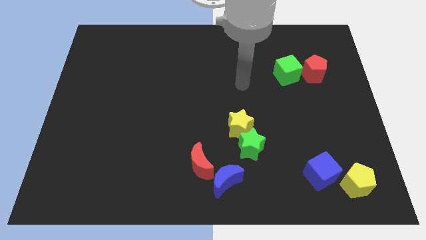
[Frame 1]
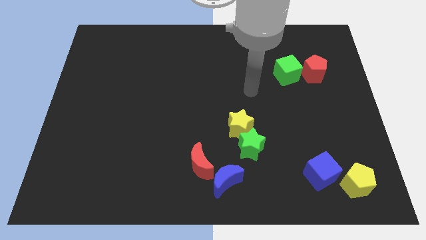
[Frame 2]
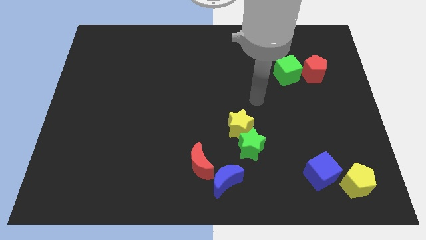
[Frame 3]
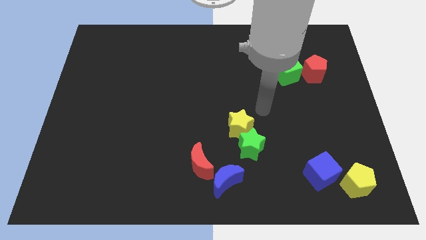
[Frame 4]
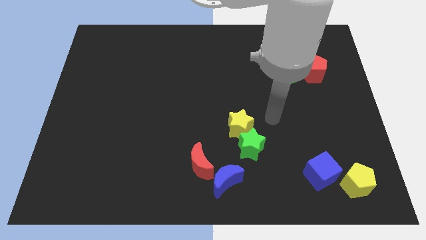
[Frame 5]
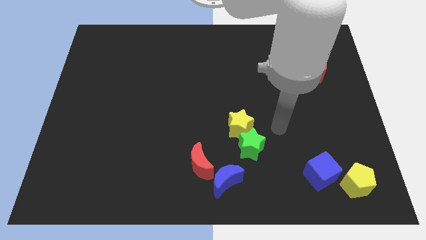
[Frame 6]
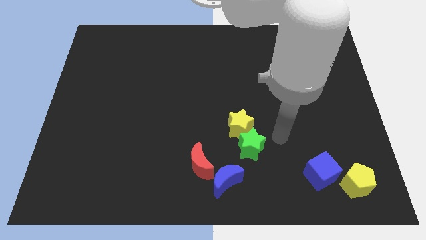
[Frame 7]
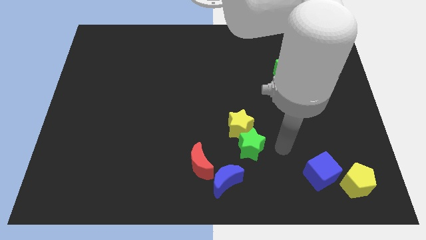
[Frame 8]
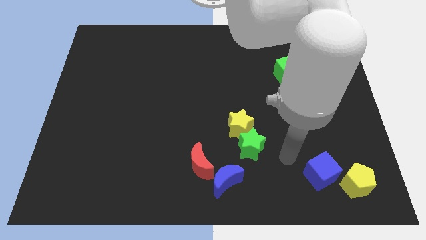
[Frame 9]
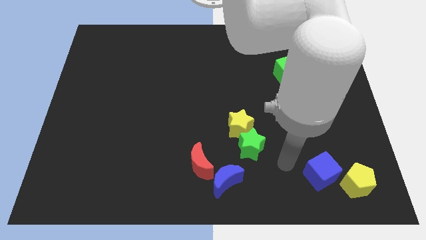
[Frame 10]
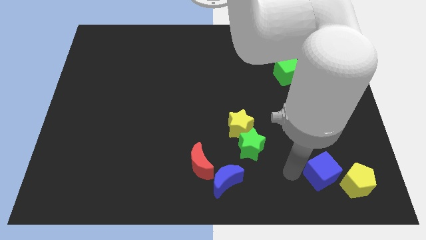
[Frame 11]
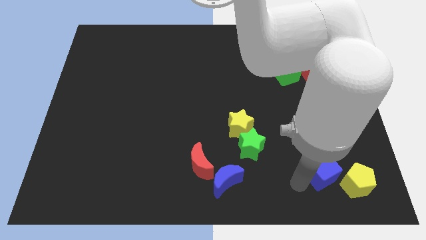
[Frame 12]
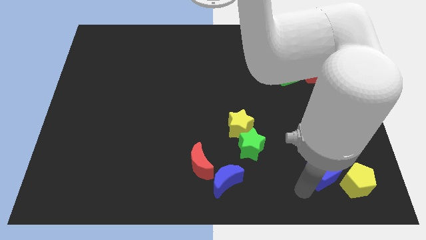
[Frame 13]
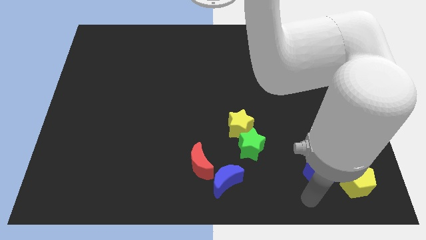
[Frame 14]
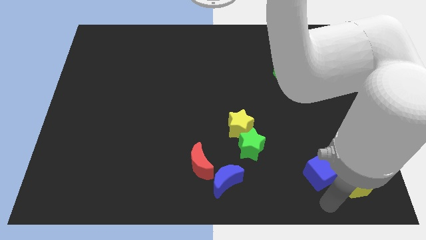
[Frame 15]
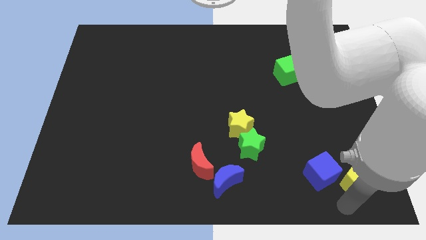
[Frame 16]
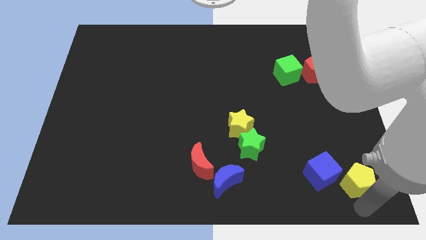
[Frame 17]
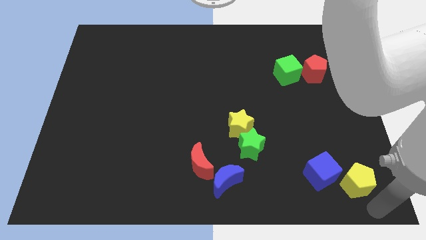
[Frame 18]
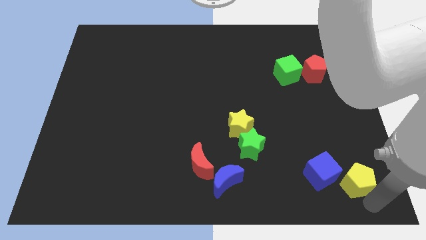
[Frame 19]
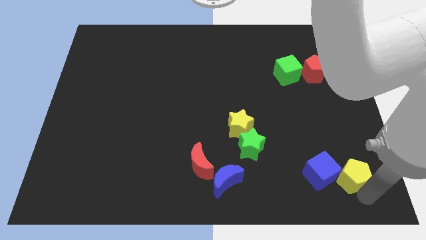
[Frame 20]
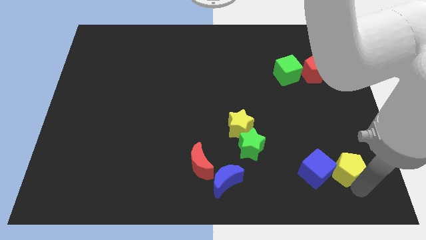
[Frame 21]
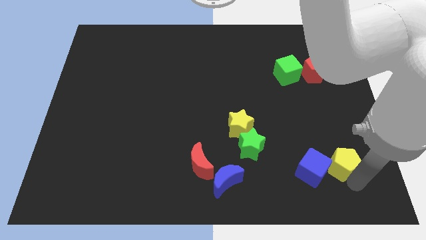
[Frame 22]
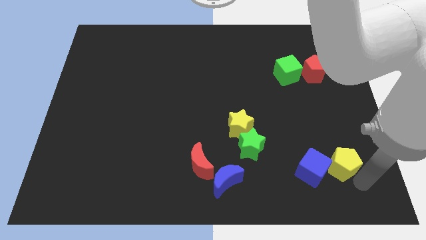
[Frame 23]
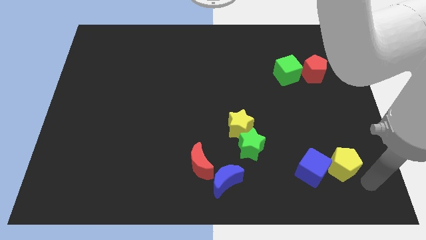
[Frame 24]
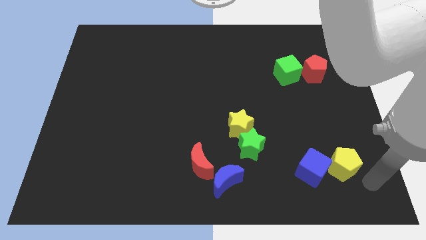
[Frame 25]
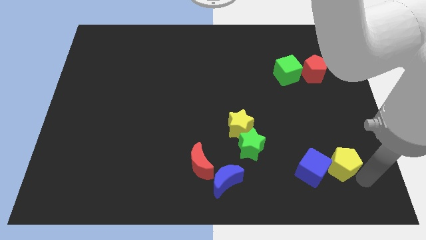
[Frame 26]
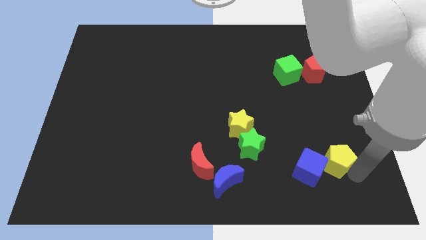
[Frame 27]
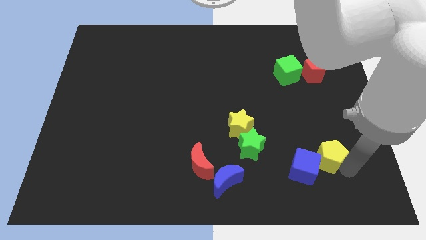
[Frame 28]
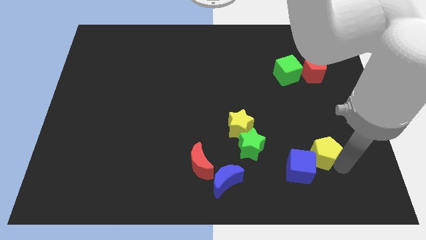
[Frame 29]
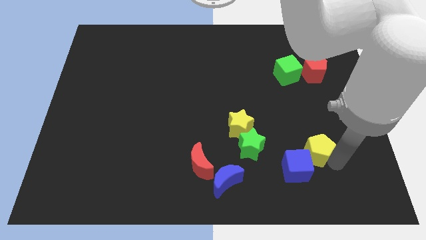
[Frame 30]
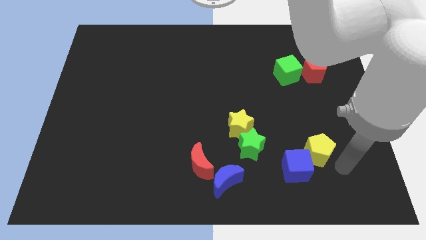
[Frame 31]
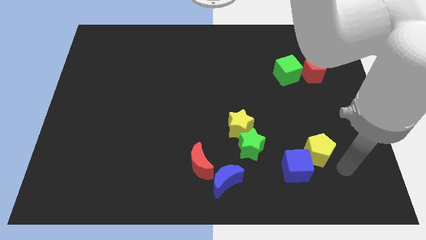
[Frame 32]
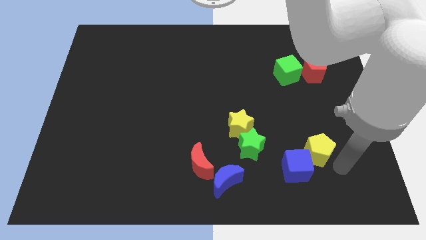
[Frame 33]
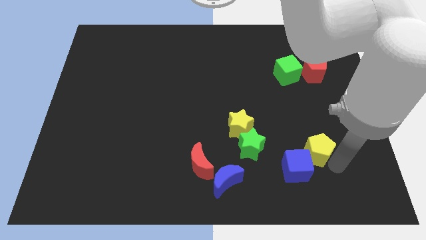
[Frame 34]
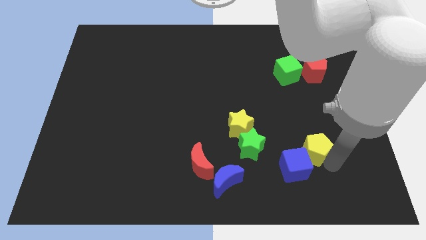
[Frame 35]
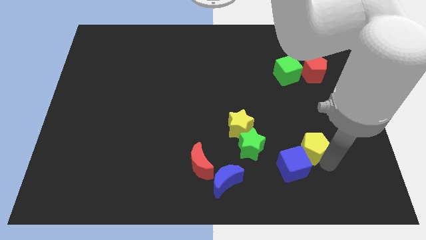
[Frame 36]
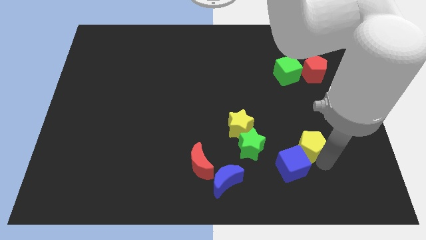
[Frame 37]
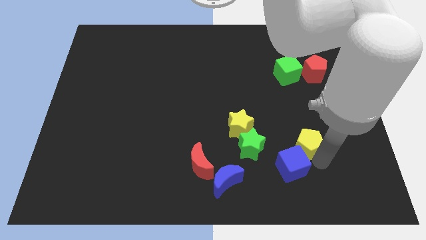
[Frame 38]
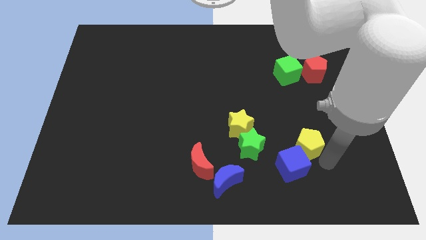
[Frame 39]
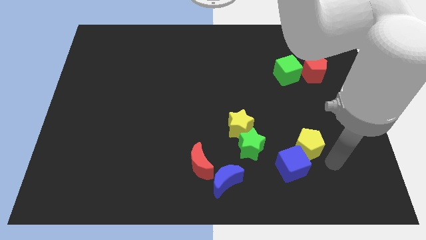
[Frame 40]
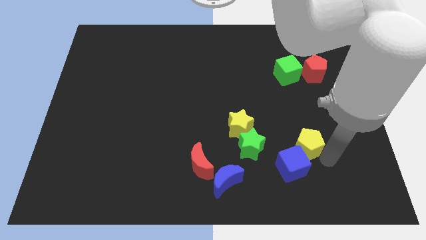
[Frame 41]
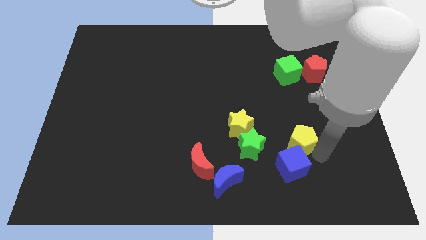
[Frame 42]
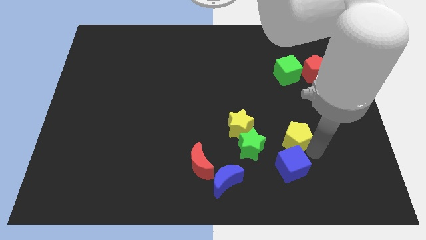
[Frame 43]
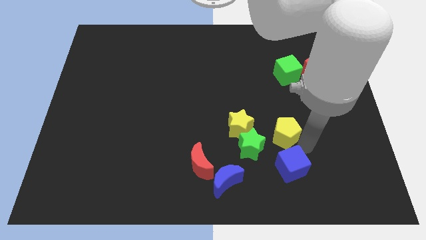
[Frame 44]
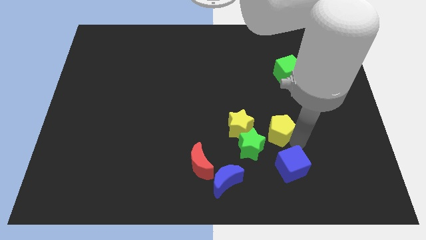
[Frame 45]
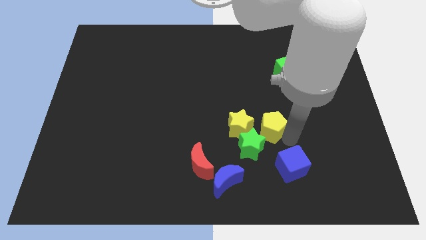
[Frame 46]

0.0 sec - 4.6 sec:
move the yellow pentagon diagonally upwards and to the left

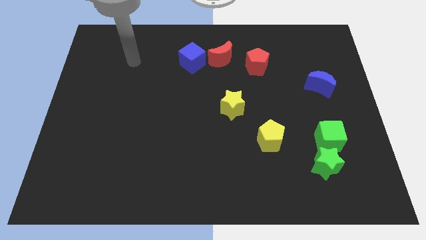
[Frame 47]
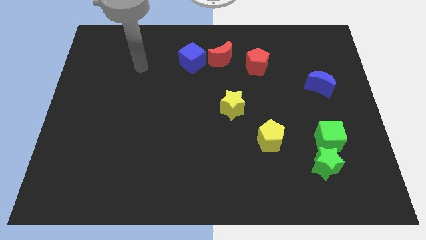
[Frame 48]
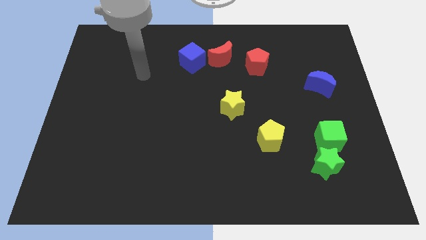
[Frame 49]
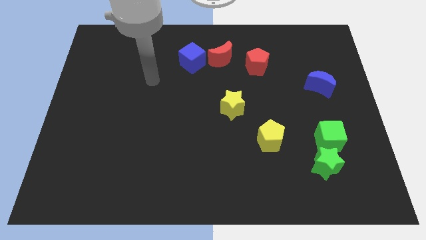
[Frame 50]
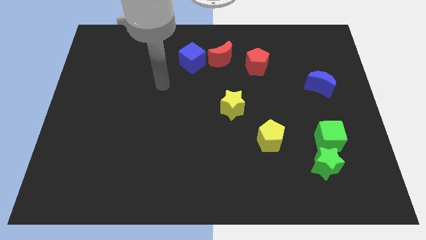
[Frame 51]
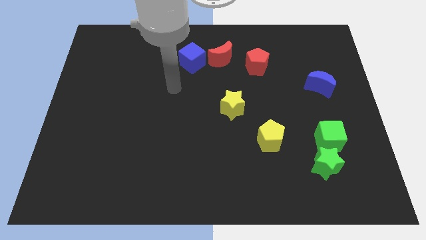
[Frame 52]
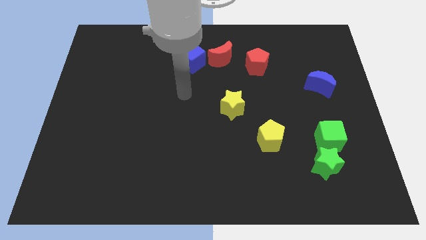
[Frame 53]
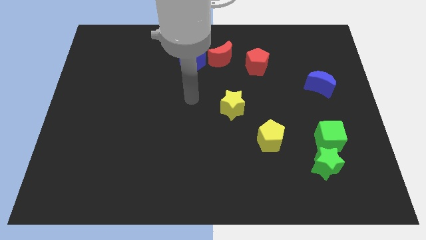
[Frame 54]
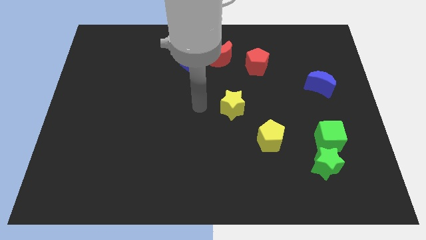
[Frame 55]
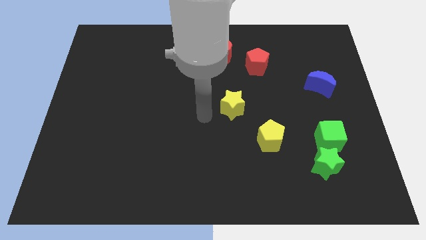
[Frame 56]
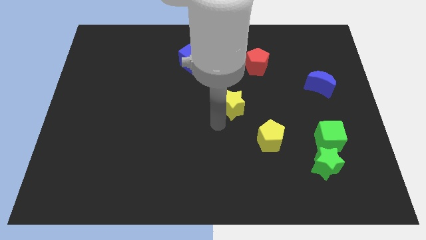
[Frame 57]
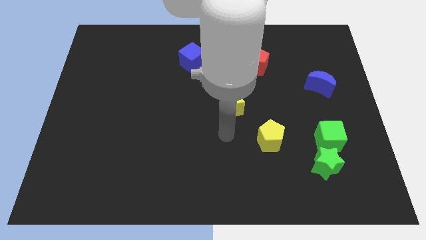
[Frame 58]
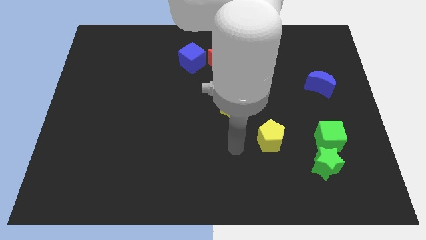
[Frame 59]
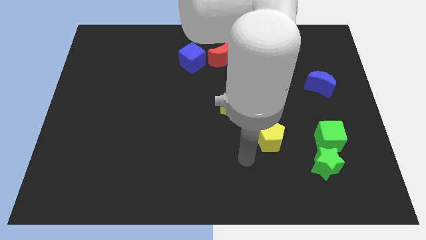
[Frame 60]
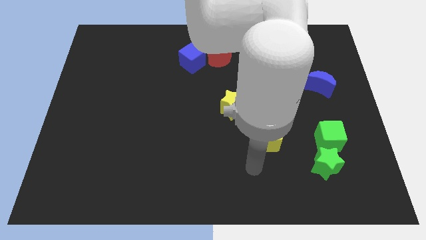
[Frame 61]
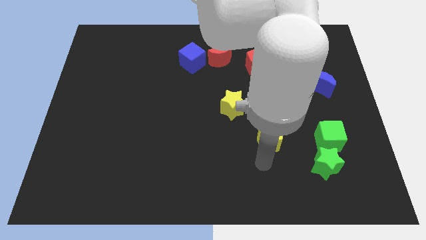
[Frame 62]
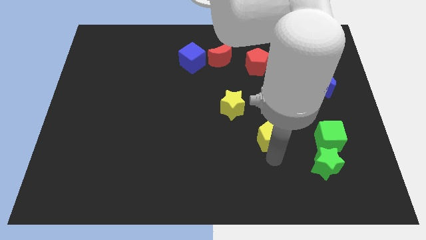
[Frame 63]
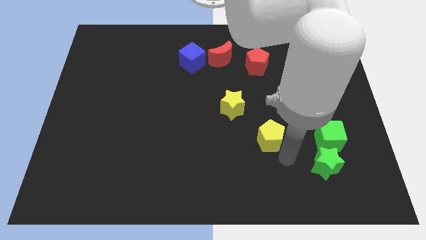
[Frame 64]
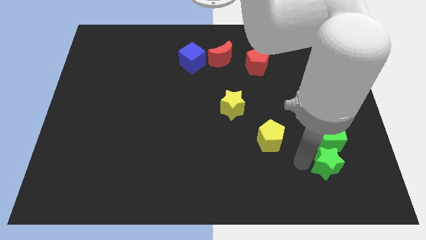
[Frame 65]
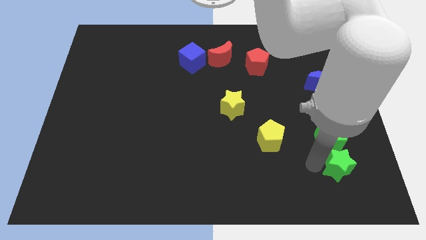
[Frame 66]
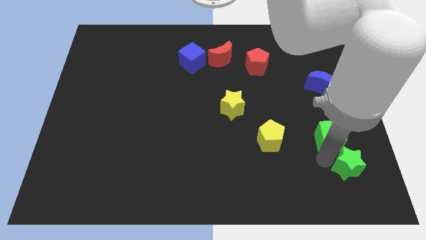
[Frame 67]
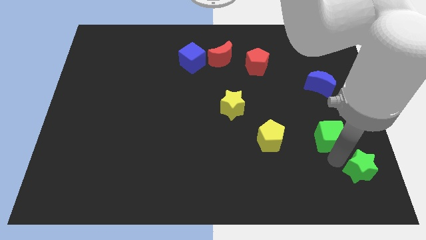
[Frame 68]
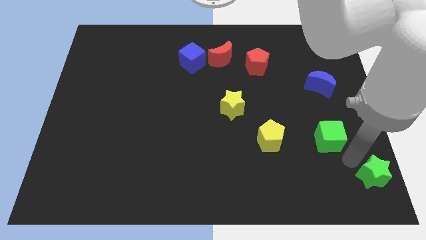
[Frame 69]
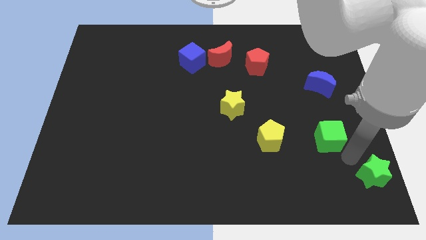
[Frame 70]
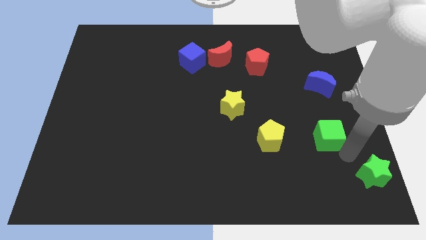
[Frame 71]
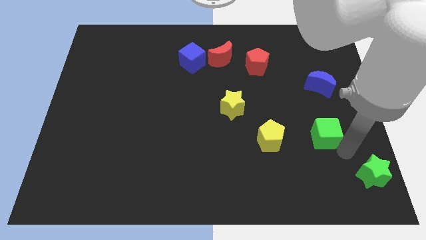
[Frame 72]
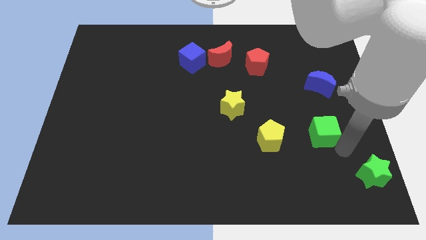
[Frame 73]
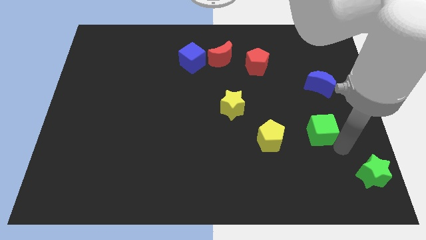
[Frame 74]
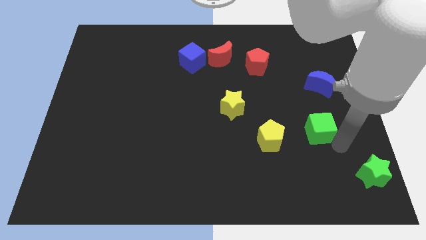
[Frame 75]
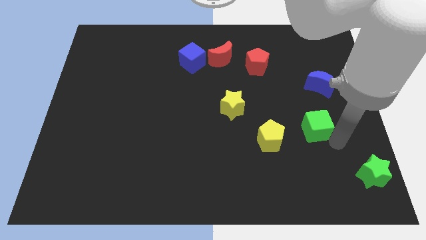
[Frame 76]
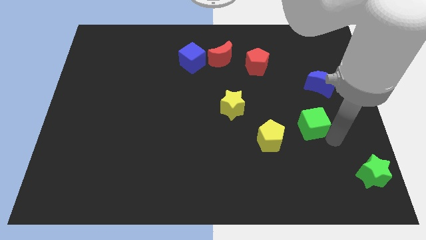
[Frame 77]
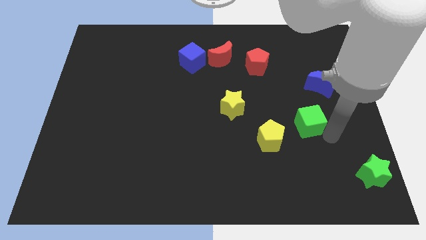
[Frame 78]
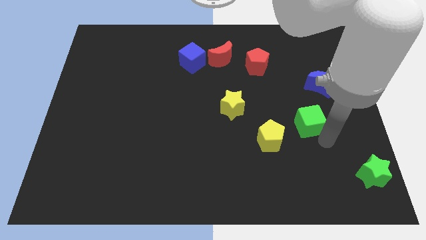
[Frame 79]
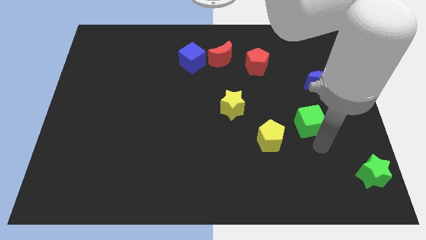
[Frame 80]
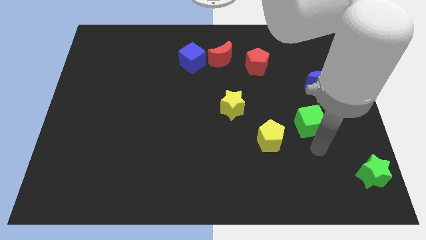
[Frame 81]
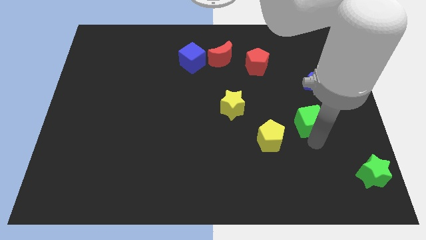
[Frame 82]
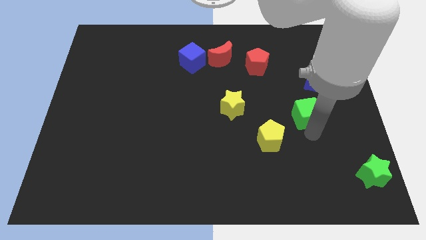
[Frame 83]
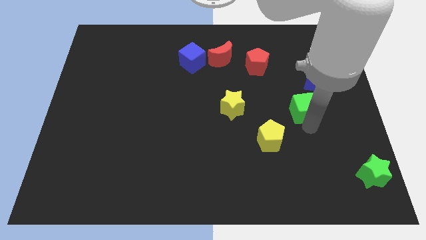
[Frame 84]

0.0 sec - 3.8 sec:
push the green cube a little bit upwards
